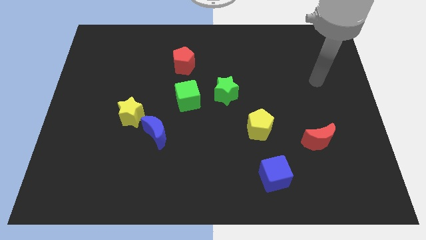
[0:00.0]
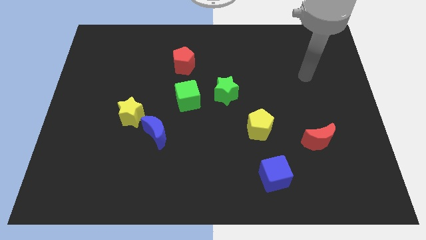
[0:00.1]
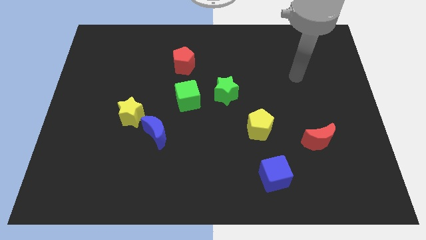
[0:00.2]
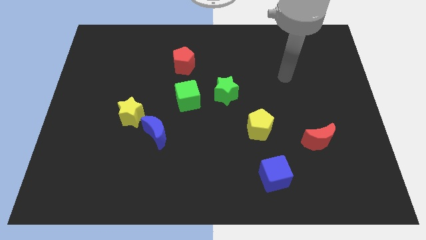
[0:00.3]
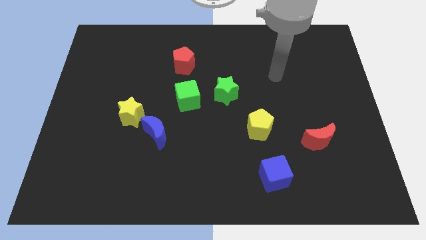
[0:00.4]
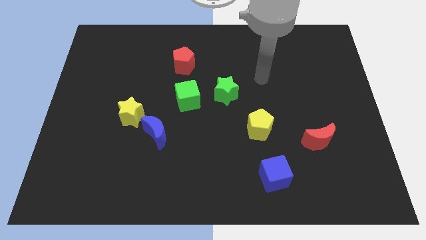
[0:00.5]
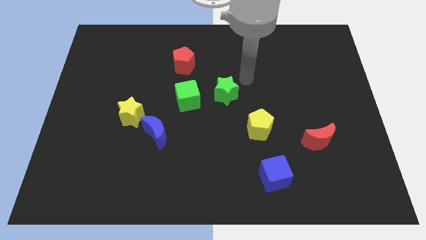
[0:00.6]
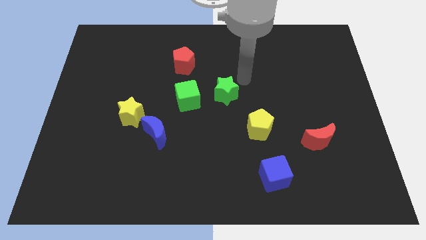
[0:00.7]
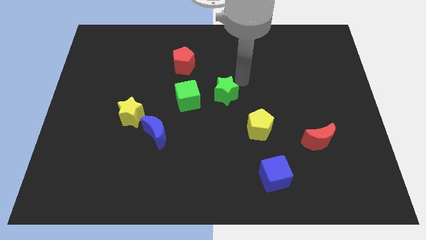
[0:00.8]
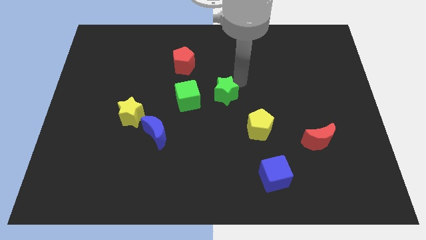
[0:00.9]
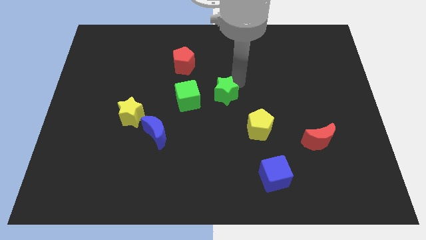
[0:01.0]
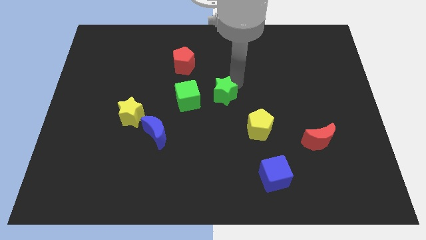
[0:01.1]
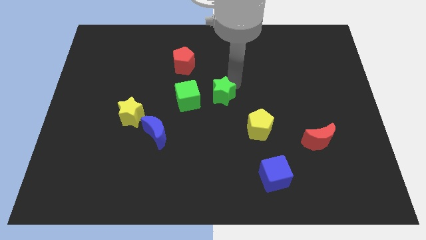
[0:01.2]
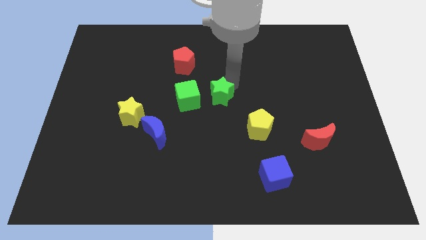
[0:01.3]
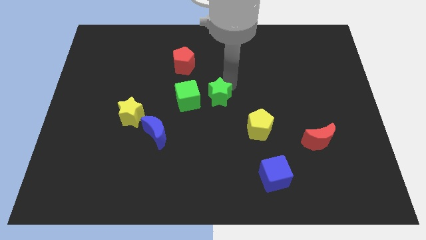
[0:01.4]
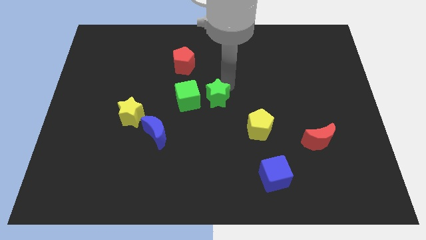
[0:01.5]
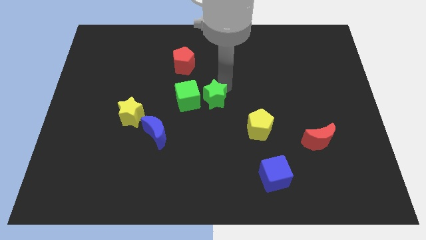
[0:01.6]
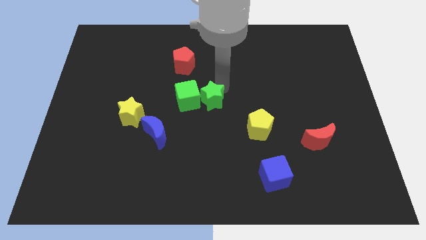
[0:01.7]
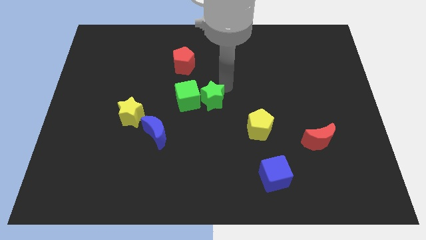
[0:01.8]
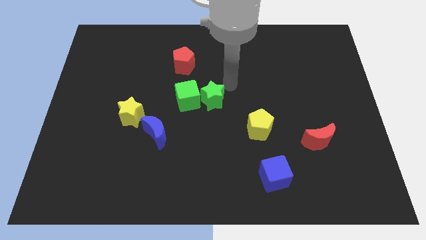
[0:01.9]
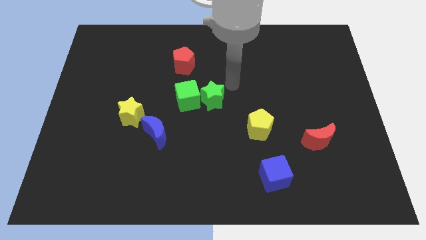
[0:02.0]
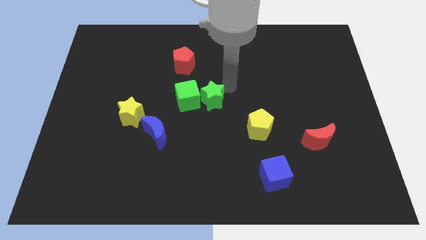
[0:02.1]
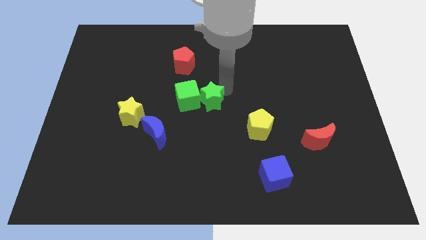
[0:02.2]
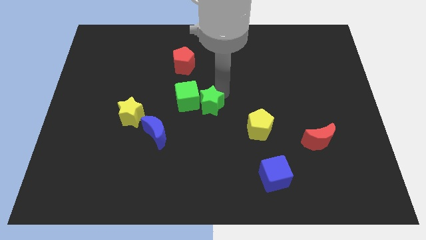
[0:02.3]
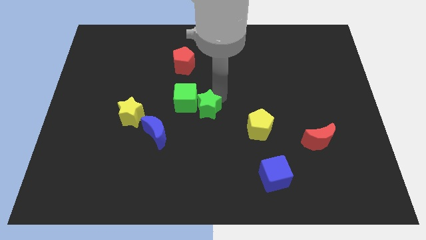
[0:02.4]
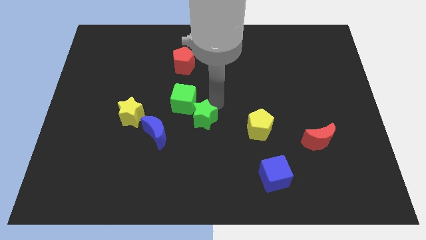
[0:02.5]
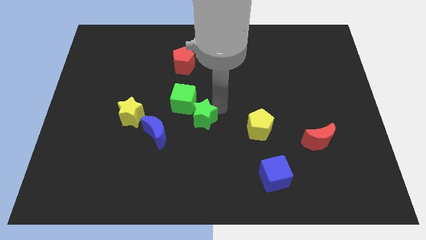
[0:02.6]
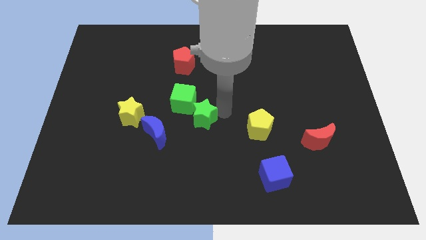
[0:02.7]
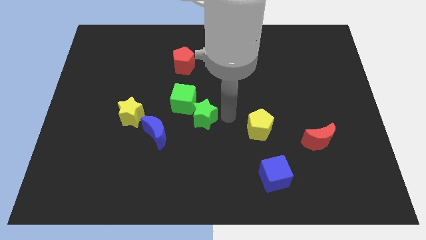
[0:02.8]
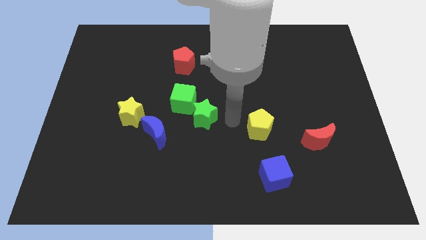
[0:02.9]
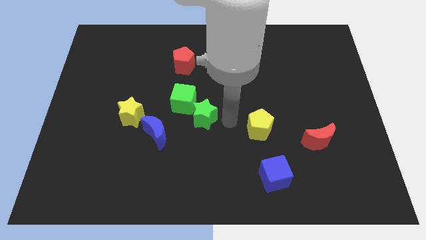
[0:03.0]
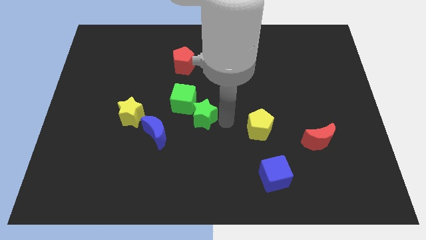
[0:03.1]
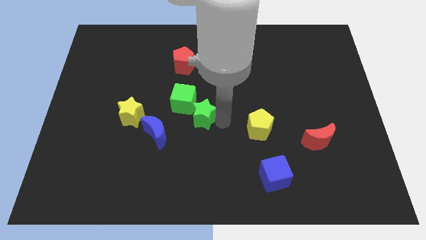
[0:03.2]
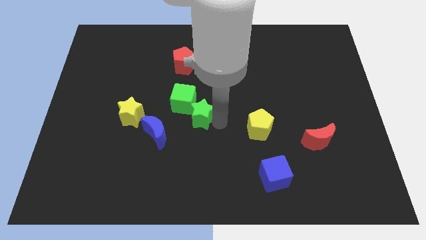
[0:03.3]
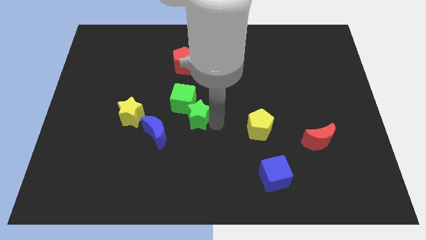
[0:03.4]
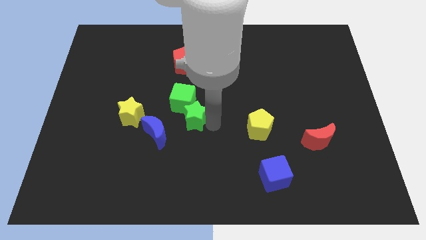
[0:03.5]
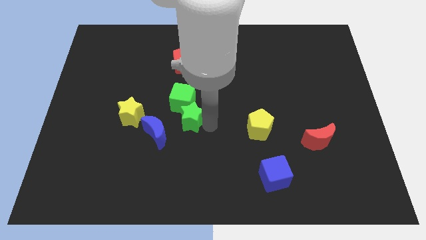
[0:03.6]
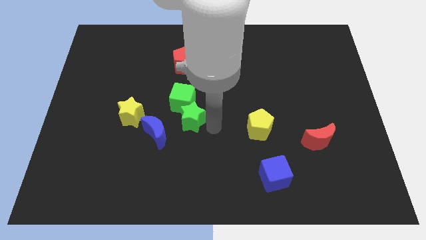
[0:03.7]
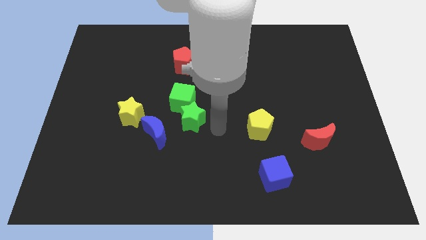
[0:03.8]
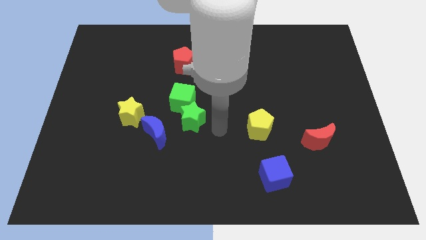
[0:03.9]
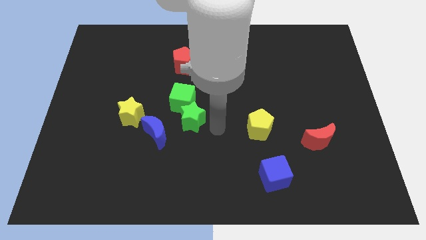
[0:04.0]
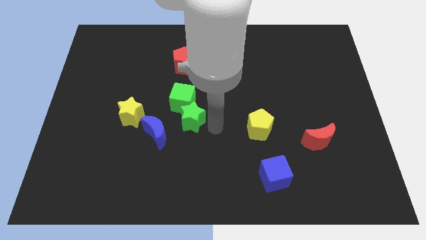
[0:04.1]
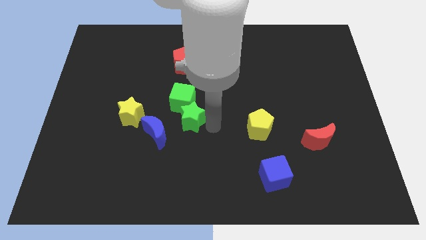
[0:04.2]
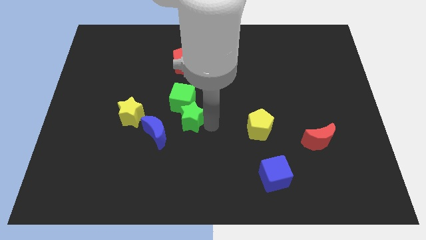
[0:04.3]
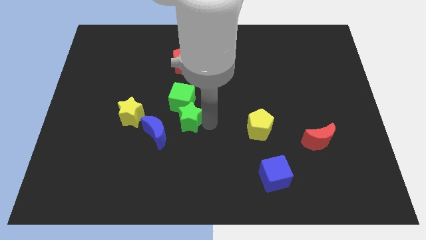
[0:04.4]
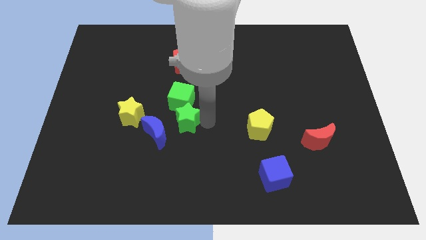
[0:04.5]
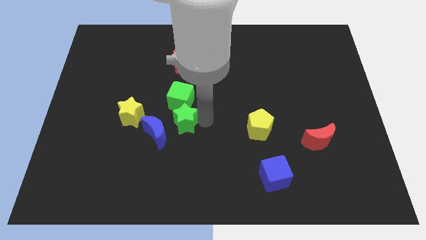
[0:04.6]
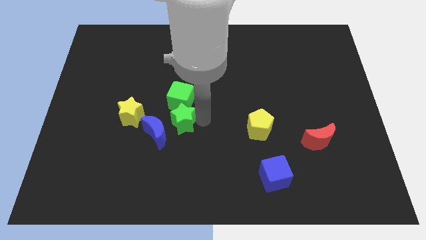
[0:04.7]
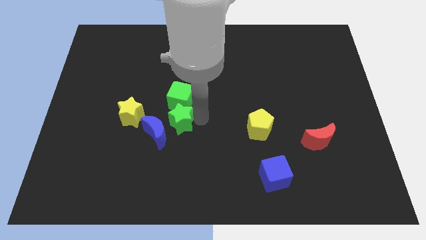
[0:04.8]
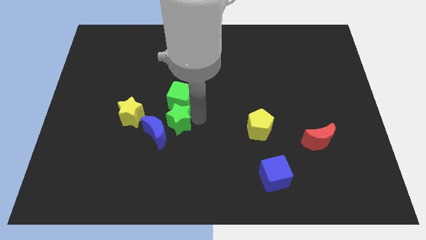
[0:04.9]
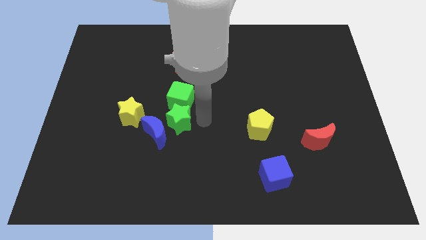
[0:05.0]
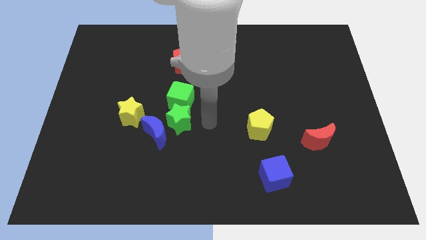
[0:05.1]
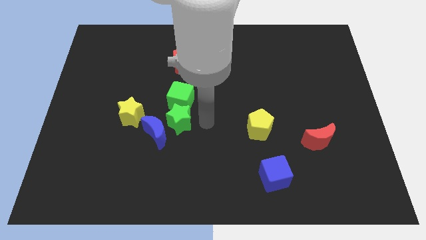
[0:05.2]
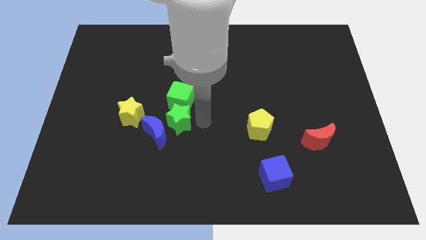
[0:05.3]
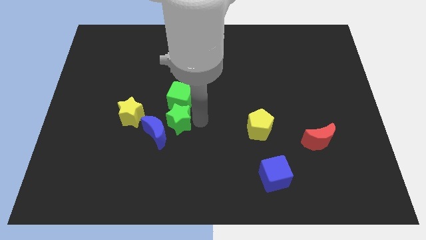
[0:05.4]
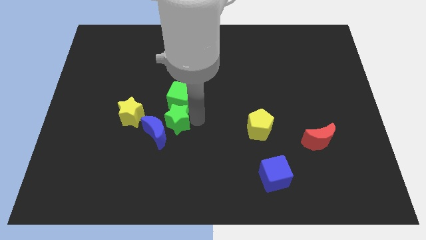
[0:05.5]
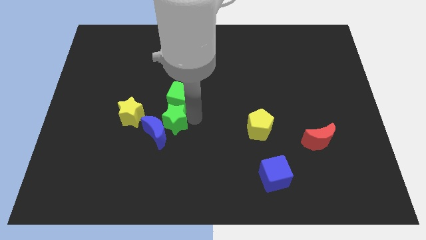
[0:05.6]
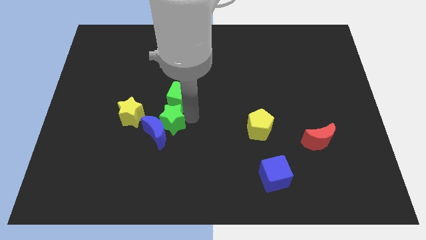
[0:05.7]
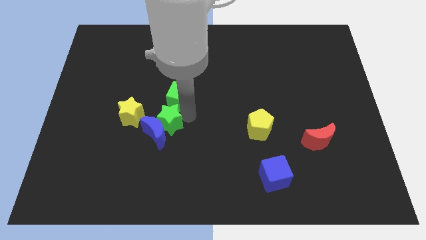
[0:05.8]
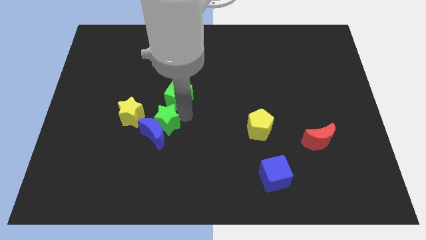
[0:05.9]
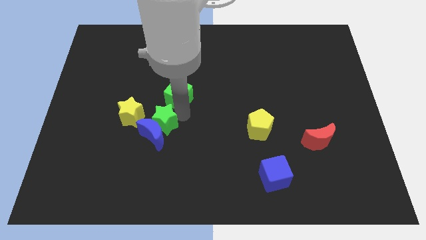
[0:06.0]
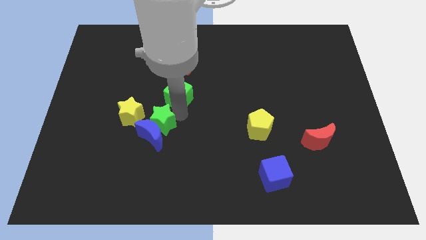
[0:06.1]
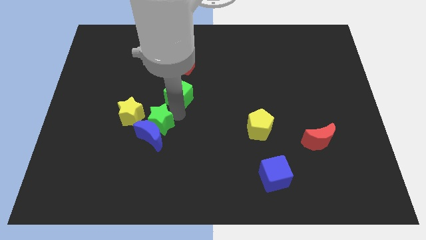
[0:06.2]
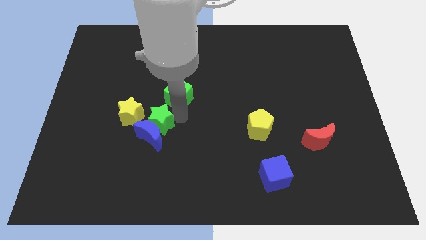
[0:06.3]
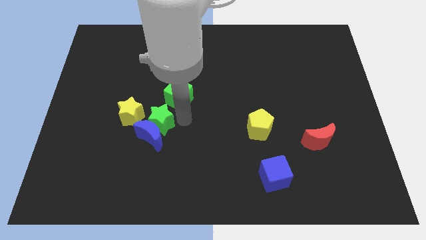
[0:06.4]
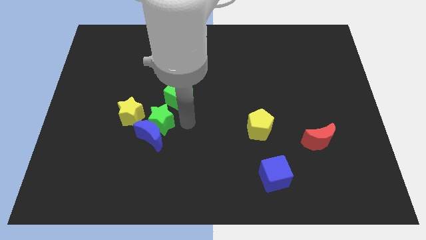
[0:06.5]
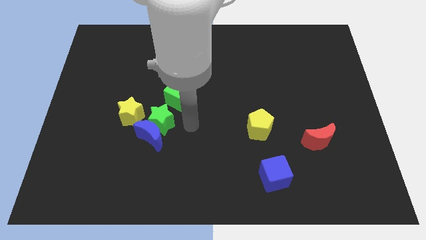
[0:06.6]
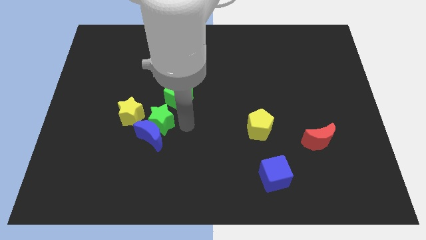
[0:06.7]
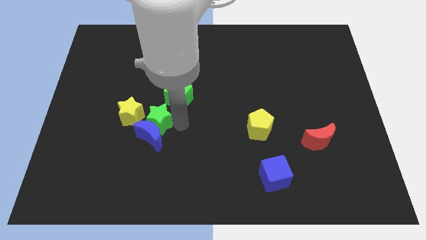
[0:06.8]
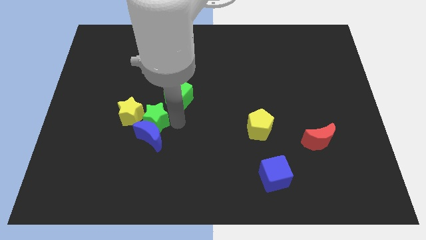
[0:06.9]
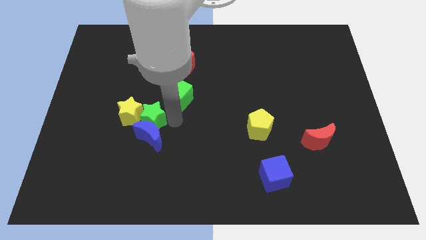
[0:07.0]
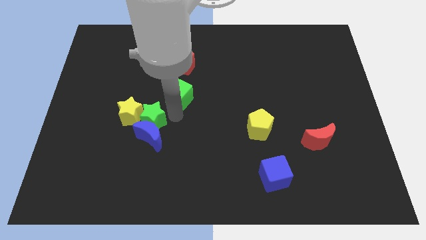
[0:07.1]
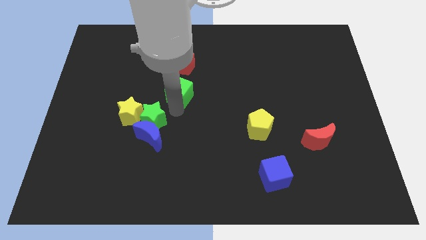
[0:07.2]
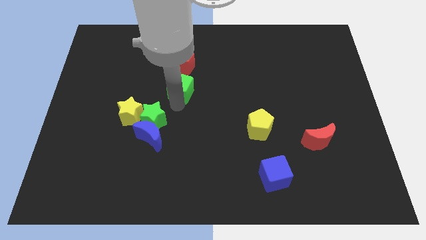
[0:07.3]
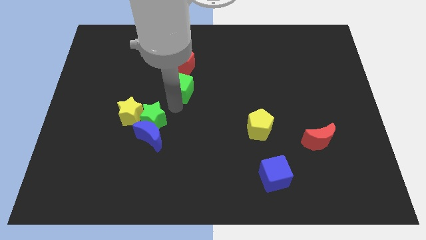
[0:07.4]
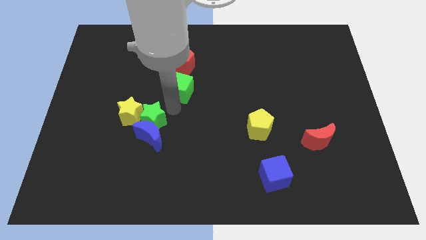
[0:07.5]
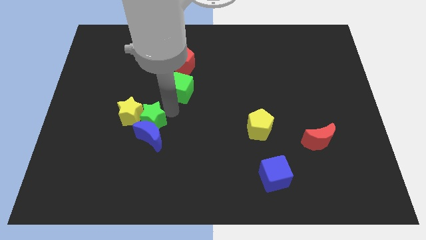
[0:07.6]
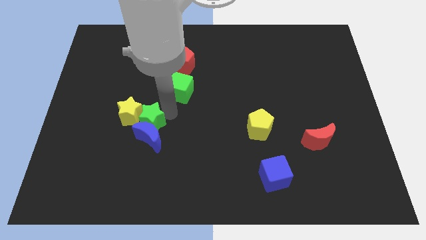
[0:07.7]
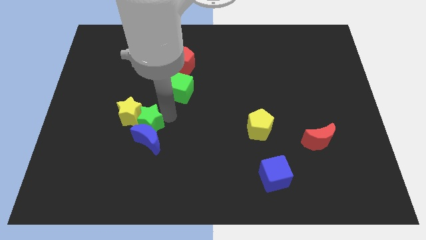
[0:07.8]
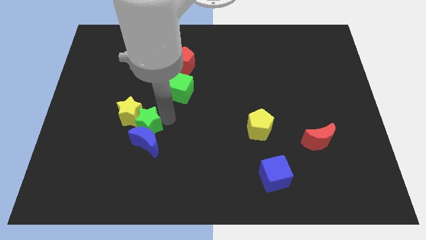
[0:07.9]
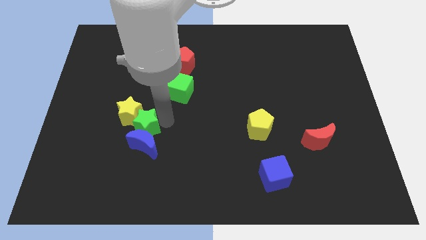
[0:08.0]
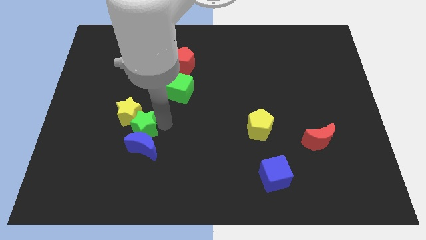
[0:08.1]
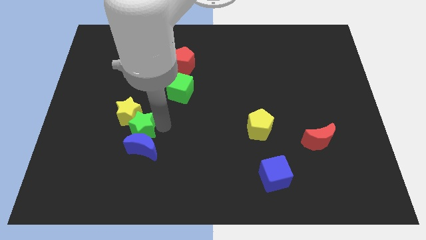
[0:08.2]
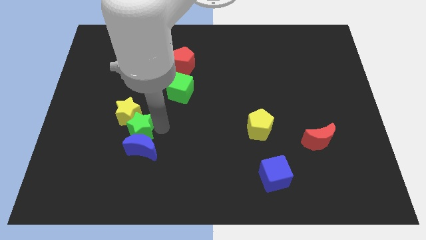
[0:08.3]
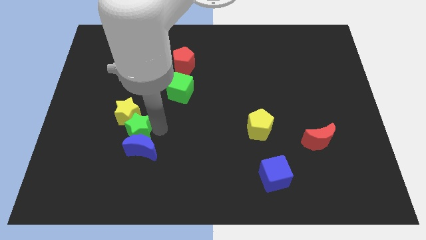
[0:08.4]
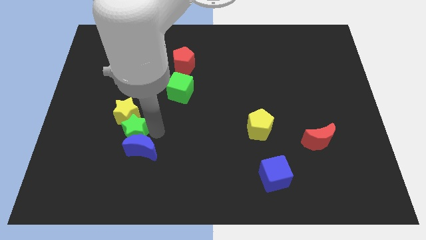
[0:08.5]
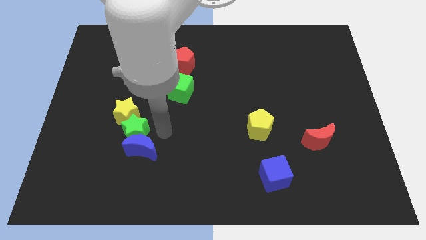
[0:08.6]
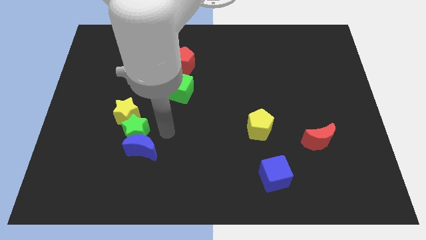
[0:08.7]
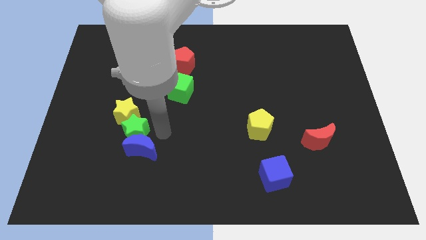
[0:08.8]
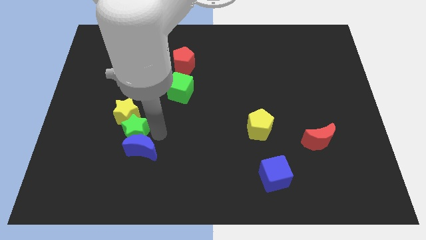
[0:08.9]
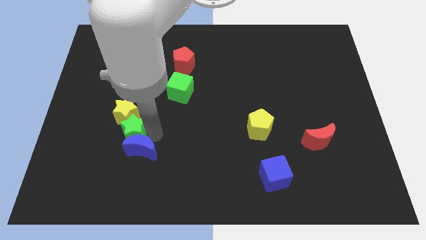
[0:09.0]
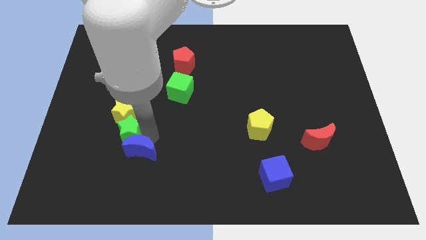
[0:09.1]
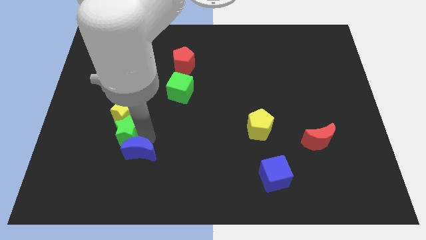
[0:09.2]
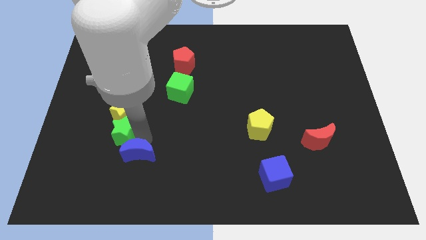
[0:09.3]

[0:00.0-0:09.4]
move the green star diagonally down and to the left of the yellow star
